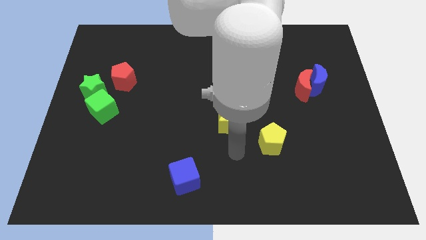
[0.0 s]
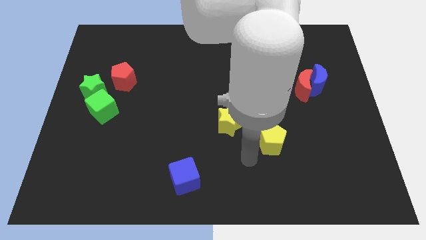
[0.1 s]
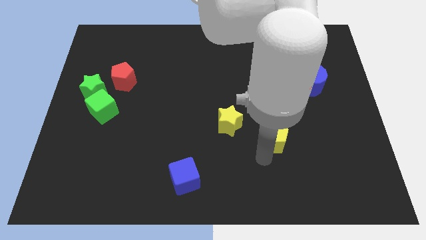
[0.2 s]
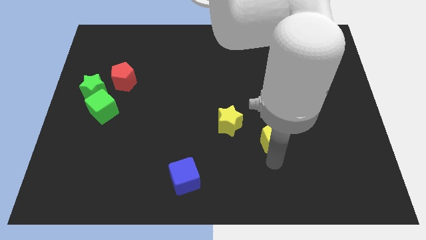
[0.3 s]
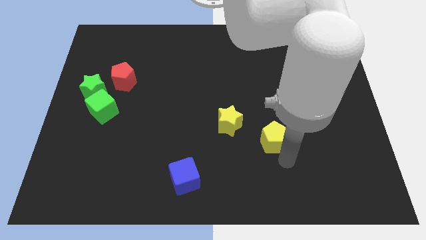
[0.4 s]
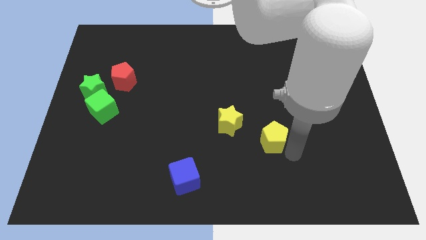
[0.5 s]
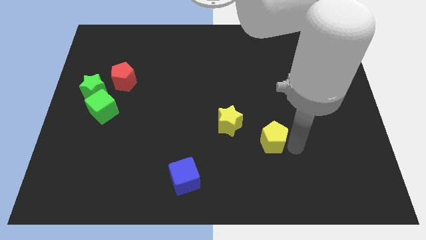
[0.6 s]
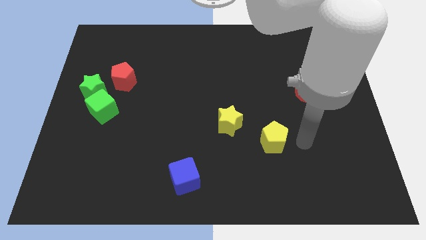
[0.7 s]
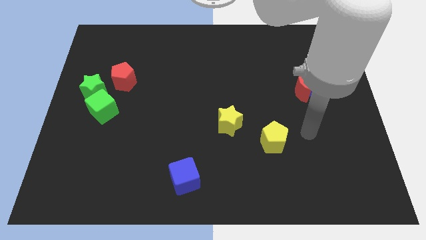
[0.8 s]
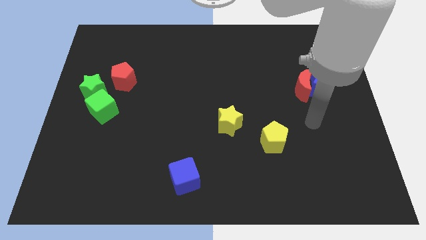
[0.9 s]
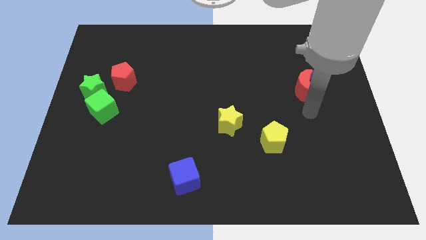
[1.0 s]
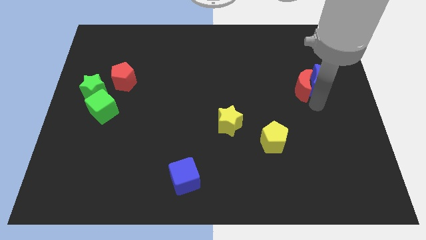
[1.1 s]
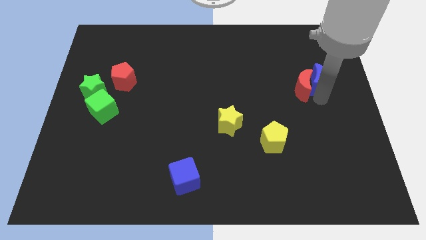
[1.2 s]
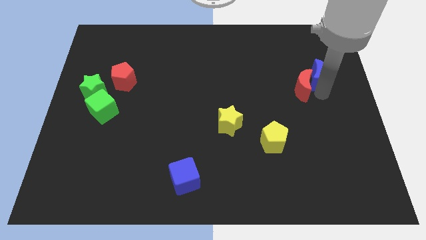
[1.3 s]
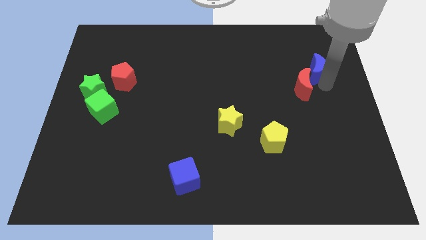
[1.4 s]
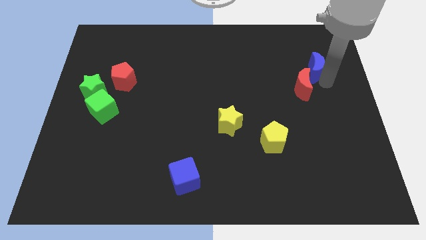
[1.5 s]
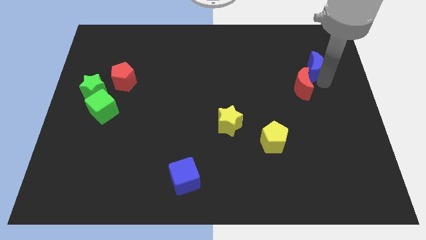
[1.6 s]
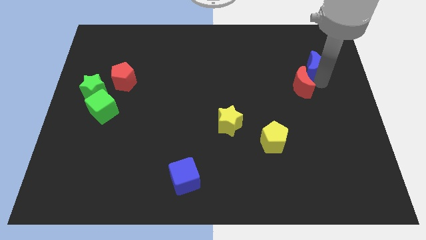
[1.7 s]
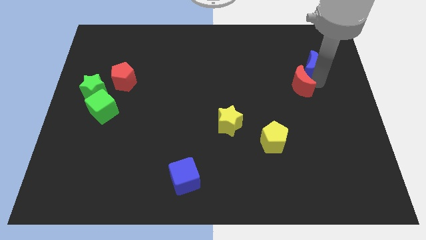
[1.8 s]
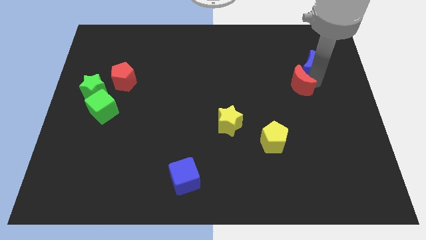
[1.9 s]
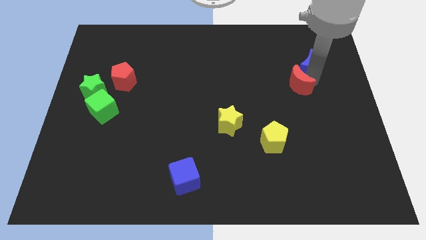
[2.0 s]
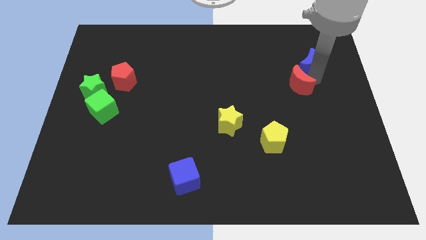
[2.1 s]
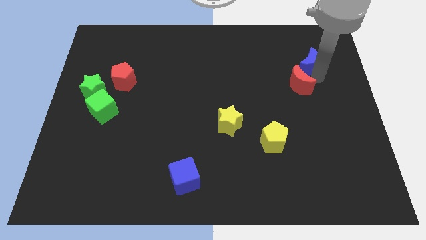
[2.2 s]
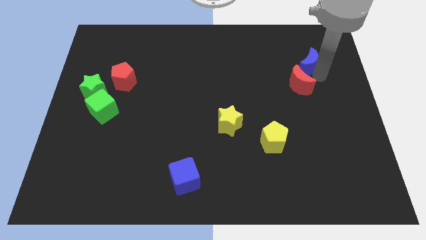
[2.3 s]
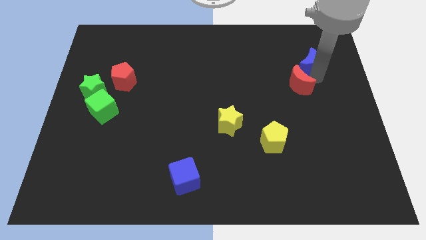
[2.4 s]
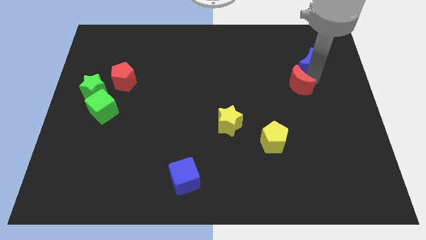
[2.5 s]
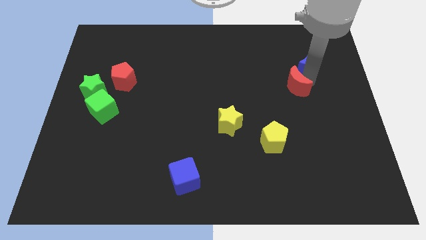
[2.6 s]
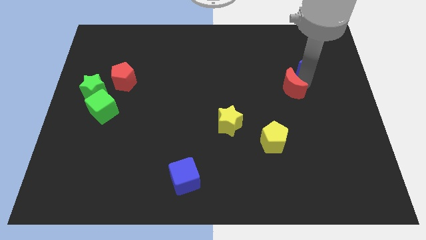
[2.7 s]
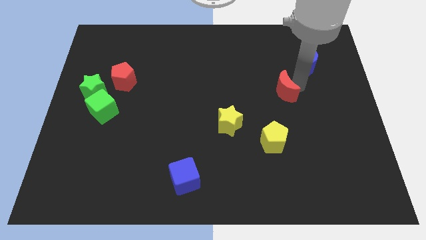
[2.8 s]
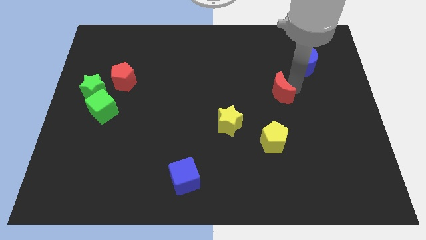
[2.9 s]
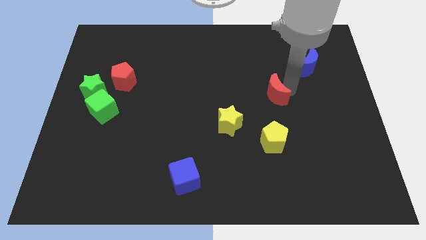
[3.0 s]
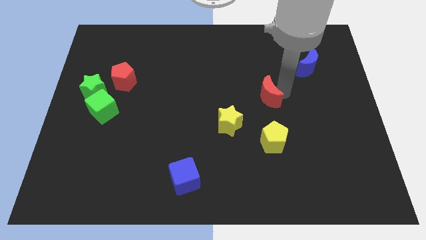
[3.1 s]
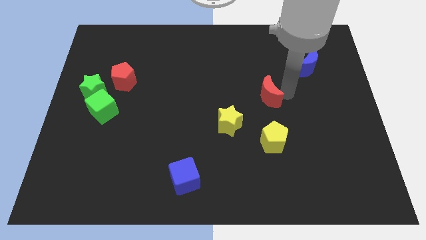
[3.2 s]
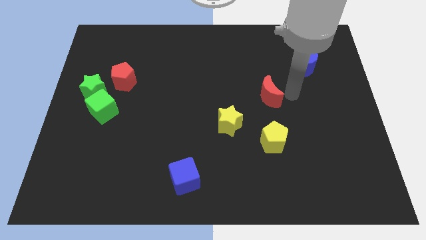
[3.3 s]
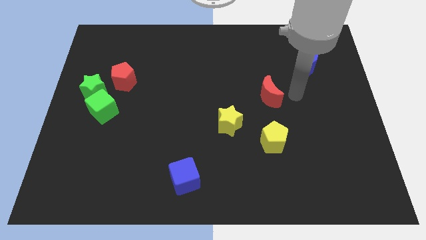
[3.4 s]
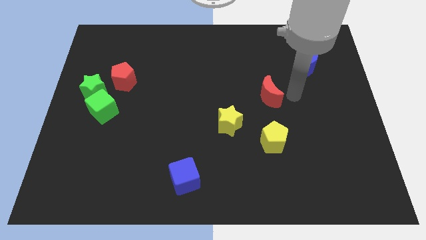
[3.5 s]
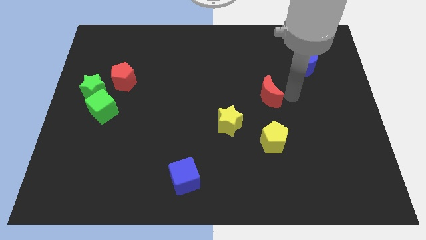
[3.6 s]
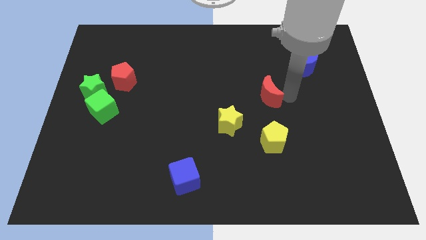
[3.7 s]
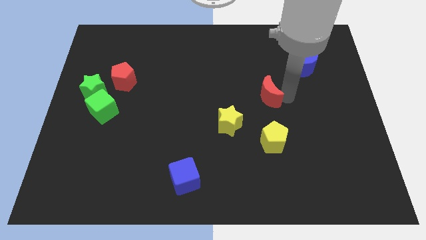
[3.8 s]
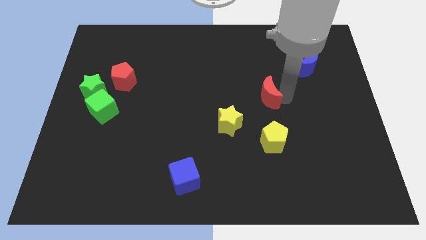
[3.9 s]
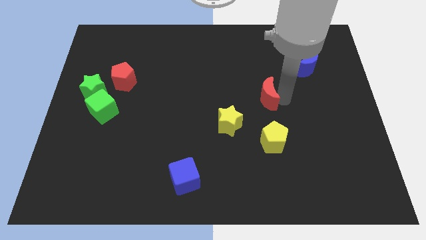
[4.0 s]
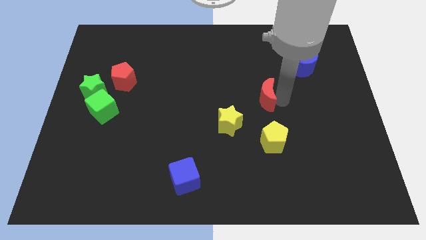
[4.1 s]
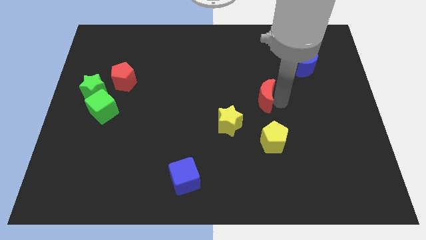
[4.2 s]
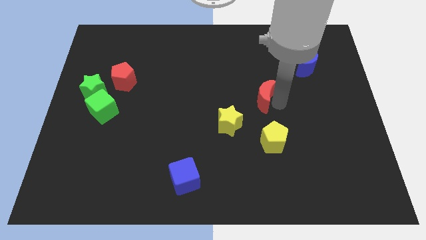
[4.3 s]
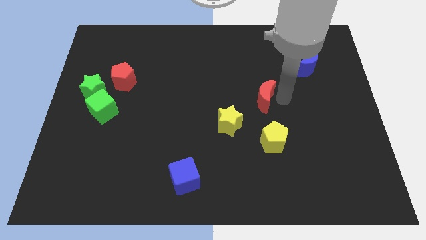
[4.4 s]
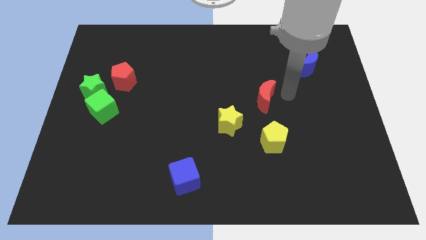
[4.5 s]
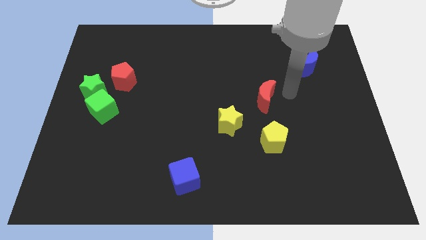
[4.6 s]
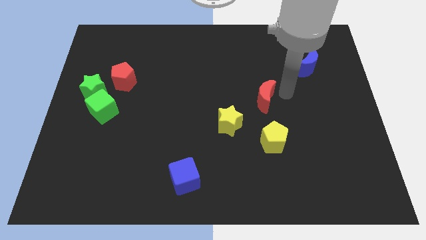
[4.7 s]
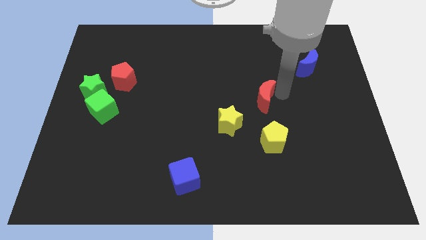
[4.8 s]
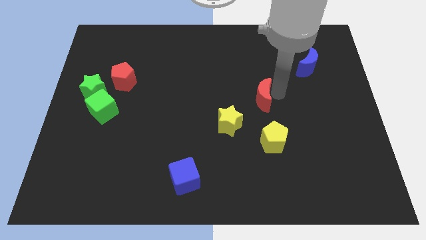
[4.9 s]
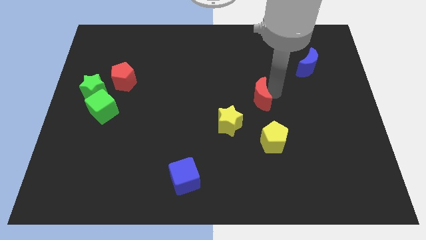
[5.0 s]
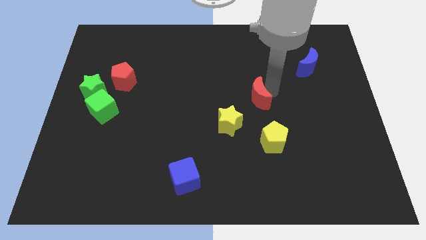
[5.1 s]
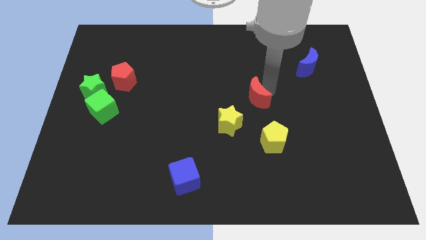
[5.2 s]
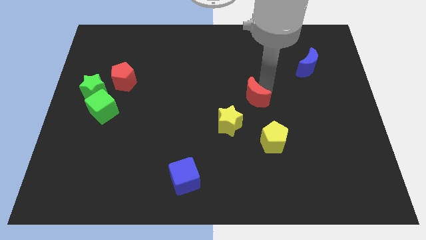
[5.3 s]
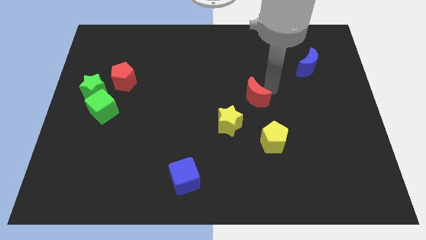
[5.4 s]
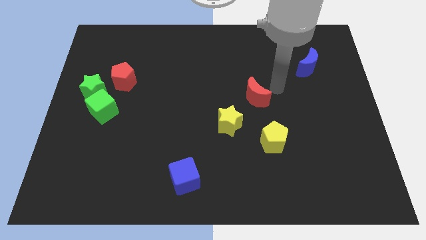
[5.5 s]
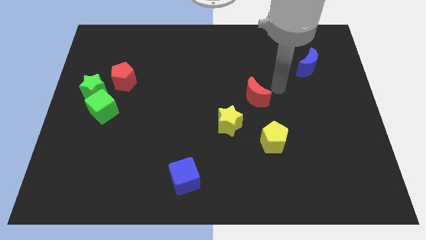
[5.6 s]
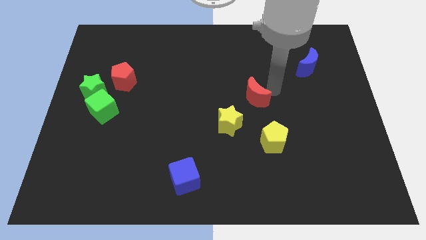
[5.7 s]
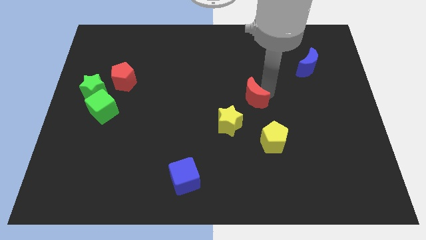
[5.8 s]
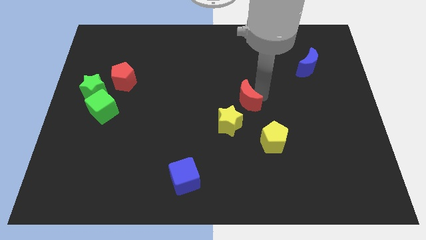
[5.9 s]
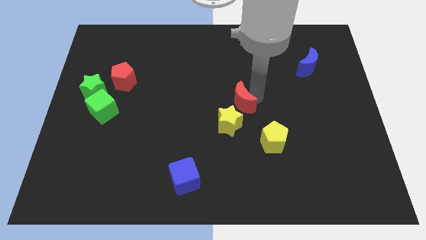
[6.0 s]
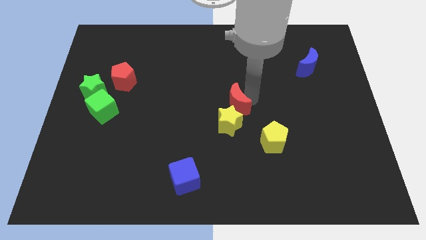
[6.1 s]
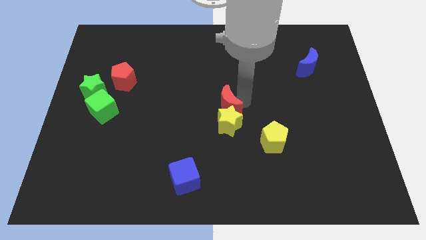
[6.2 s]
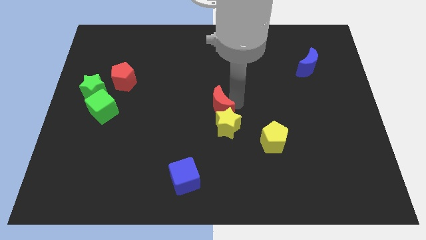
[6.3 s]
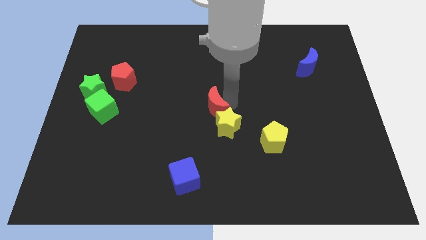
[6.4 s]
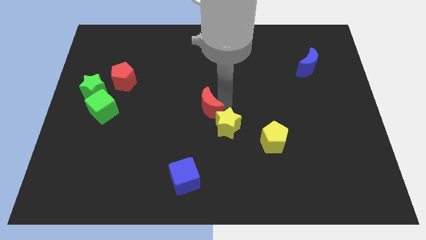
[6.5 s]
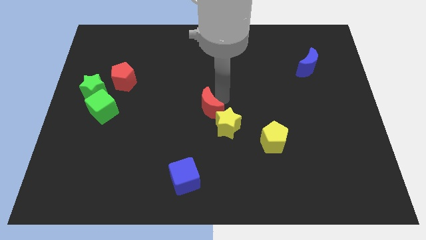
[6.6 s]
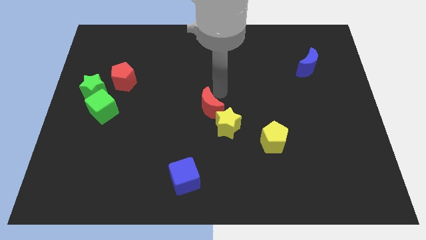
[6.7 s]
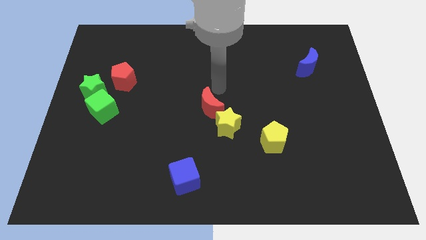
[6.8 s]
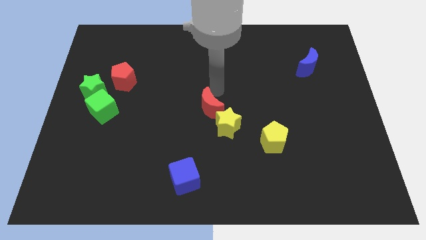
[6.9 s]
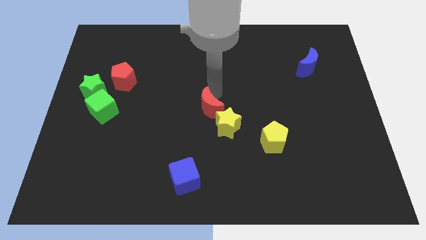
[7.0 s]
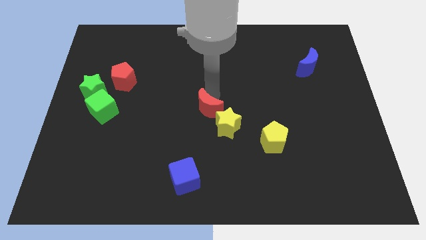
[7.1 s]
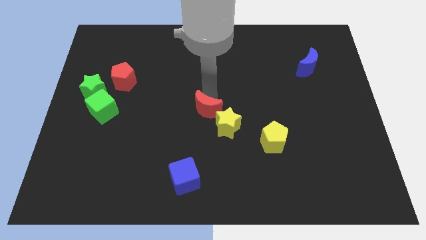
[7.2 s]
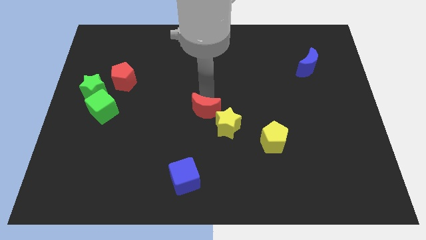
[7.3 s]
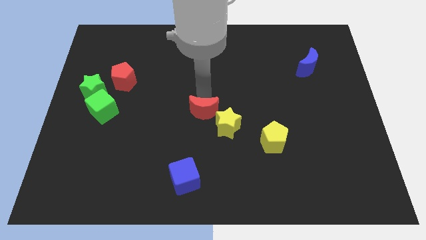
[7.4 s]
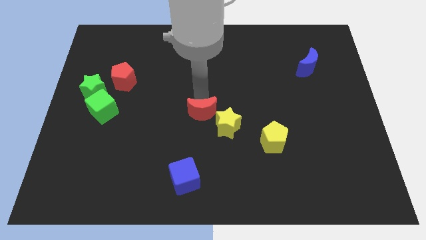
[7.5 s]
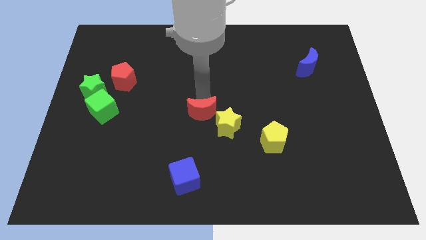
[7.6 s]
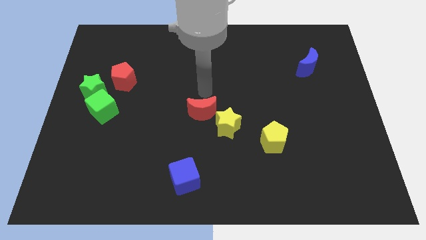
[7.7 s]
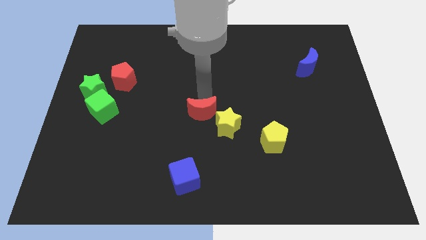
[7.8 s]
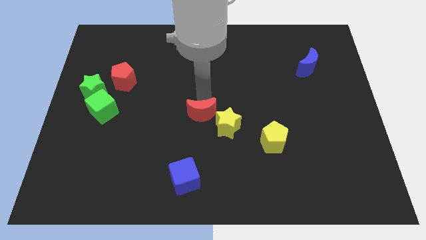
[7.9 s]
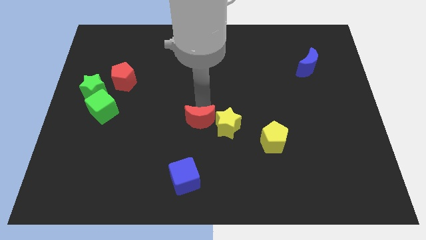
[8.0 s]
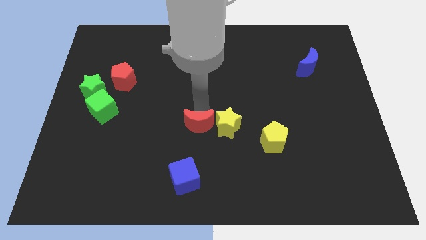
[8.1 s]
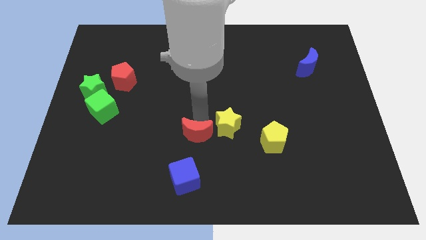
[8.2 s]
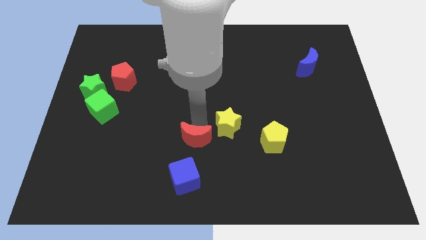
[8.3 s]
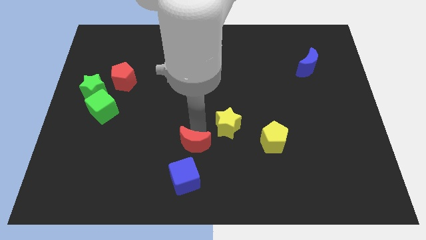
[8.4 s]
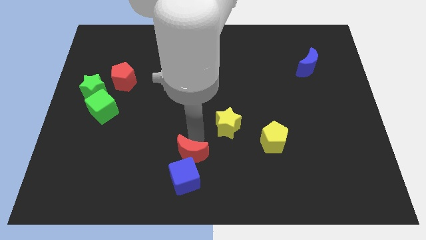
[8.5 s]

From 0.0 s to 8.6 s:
move the red moon towards the blue cube
